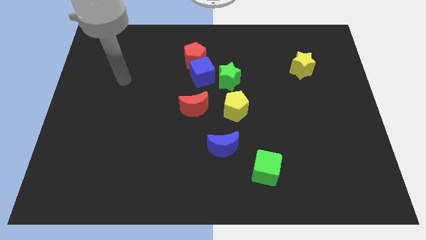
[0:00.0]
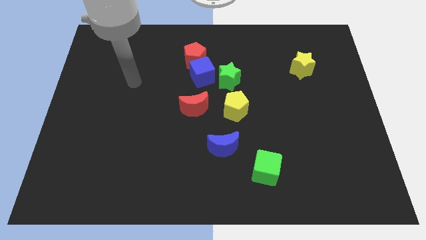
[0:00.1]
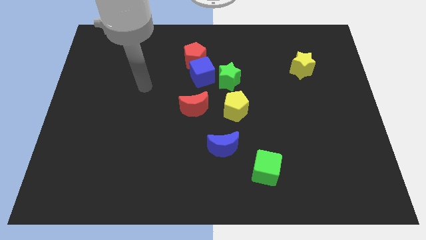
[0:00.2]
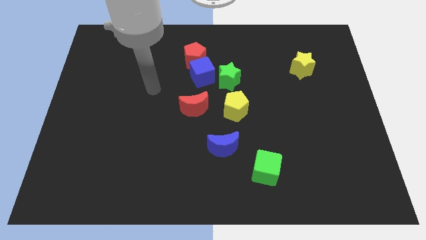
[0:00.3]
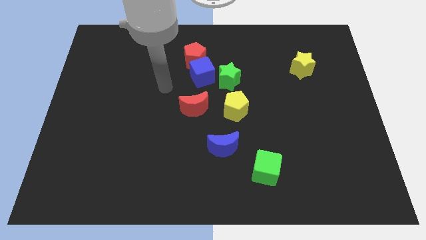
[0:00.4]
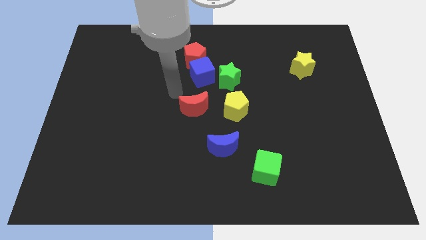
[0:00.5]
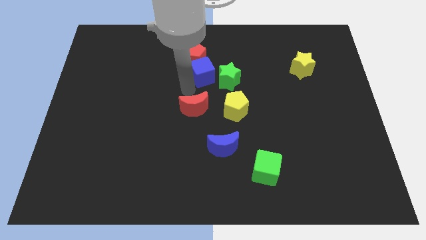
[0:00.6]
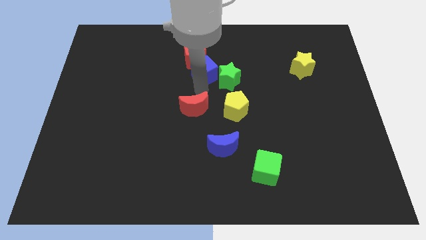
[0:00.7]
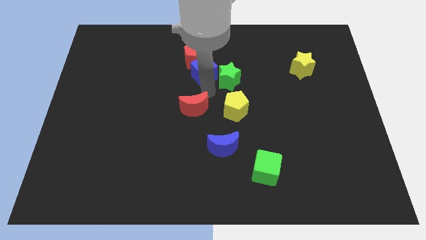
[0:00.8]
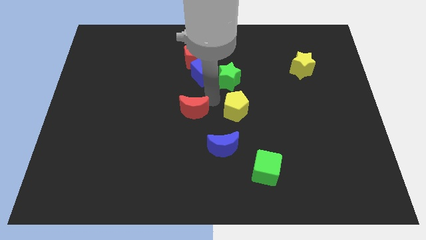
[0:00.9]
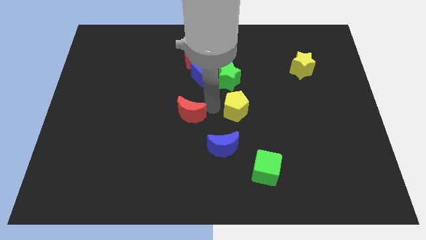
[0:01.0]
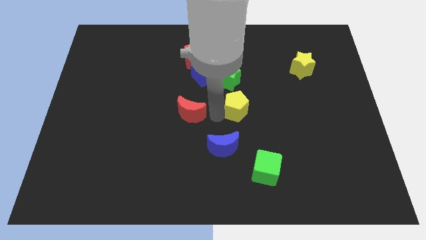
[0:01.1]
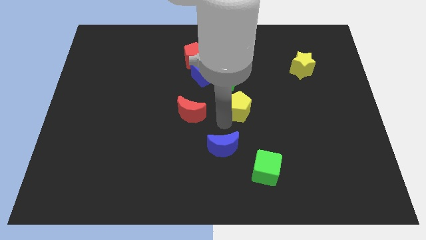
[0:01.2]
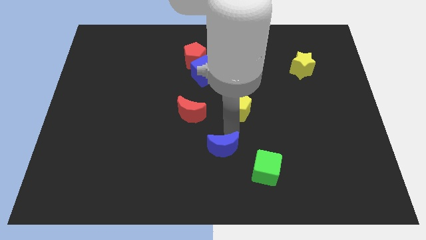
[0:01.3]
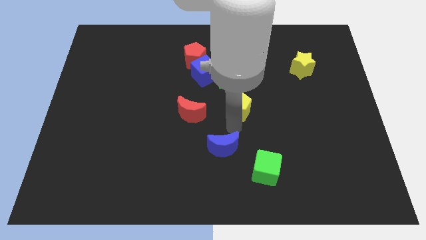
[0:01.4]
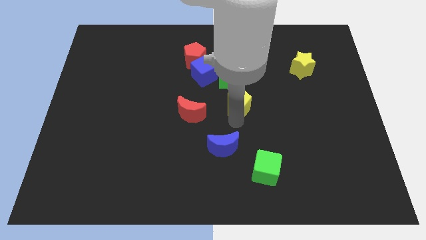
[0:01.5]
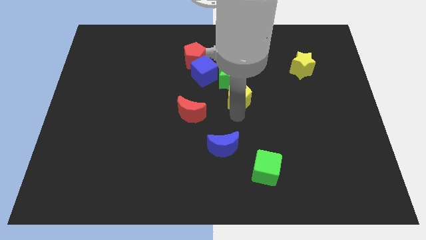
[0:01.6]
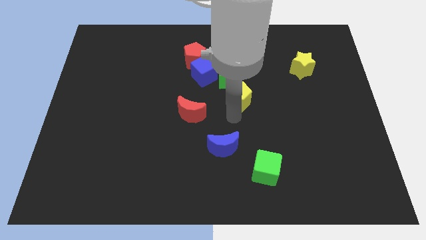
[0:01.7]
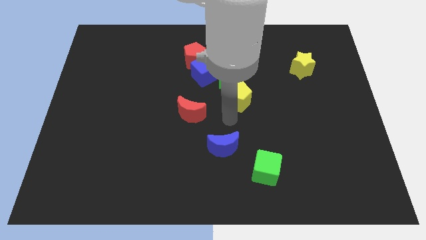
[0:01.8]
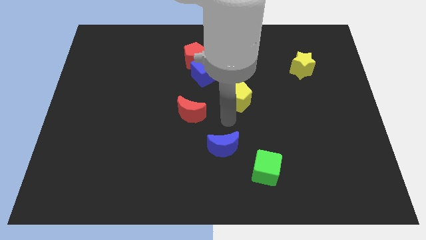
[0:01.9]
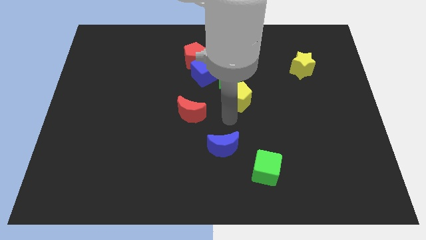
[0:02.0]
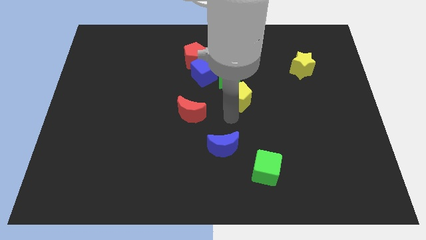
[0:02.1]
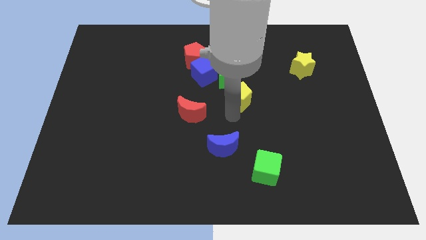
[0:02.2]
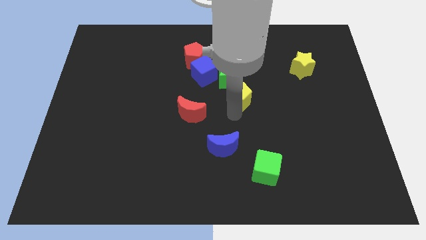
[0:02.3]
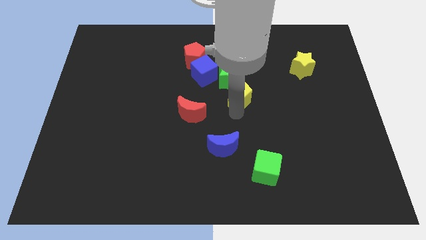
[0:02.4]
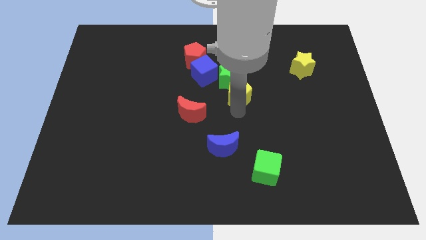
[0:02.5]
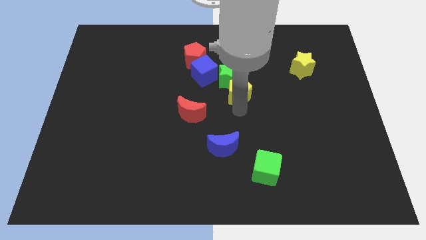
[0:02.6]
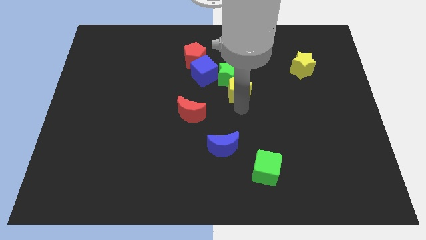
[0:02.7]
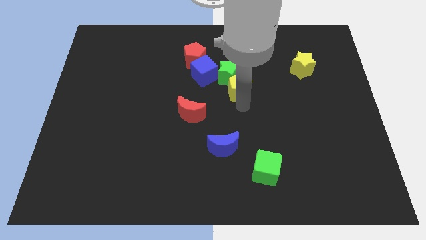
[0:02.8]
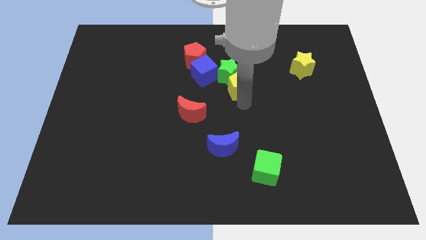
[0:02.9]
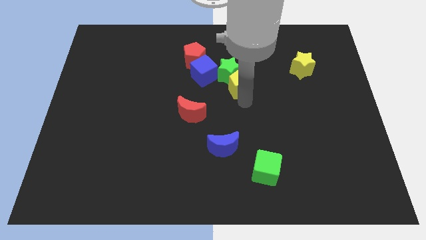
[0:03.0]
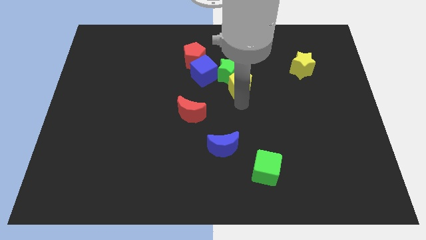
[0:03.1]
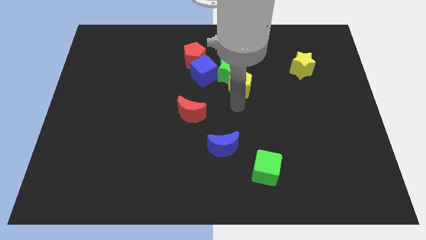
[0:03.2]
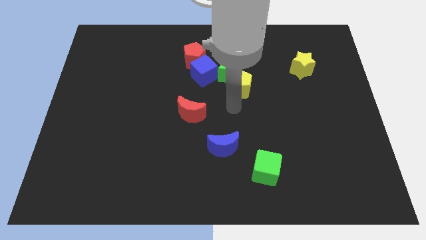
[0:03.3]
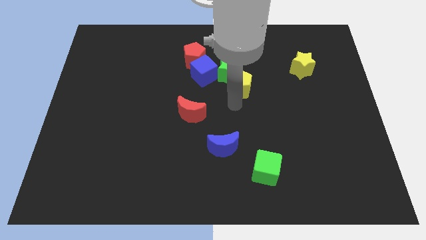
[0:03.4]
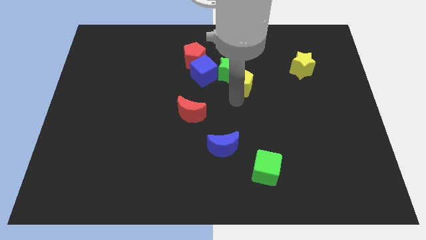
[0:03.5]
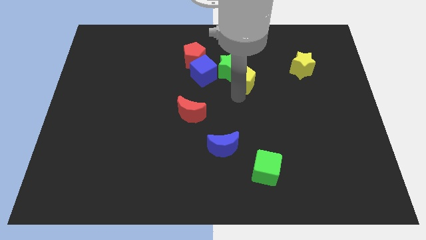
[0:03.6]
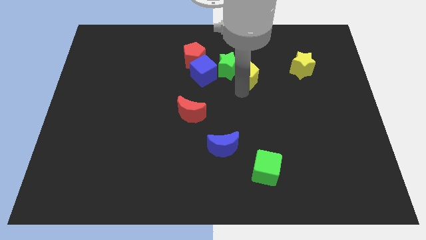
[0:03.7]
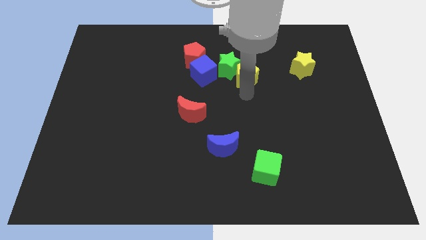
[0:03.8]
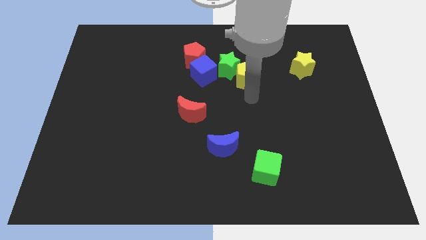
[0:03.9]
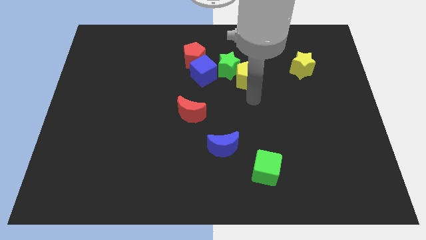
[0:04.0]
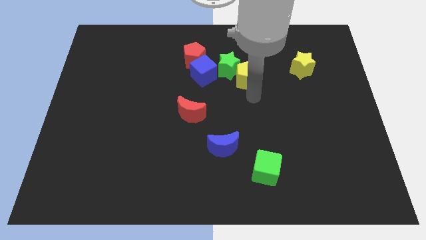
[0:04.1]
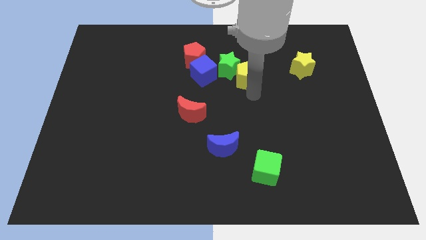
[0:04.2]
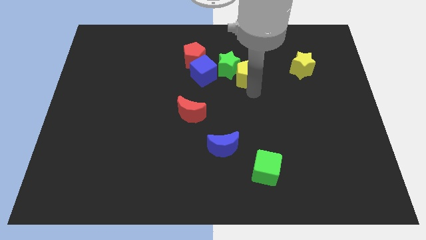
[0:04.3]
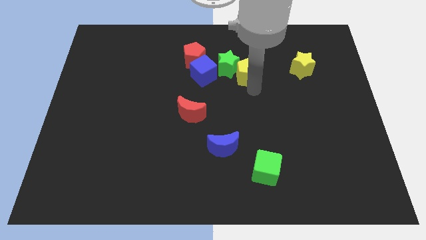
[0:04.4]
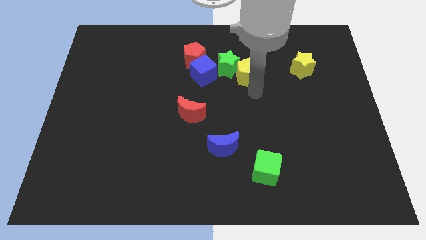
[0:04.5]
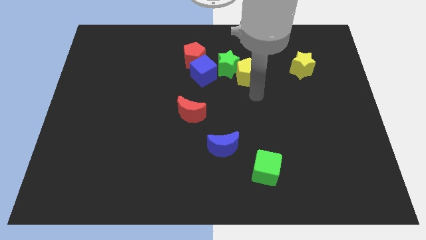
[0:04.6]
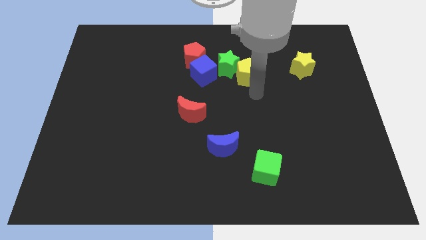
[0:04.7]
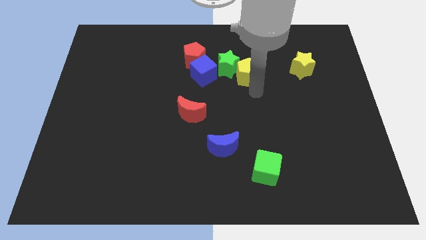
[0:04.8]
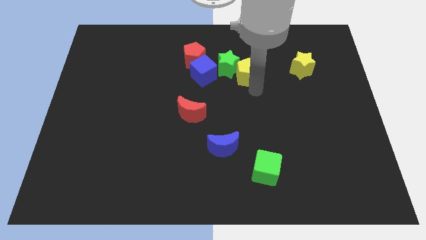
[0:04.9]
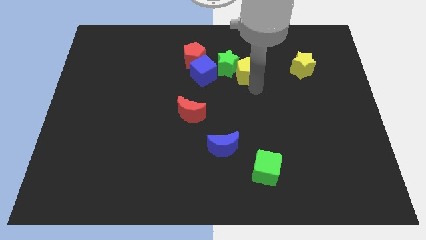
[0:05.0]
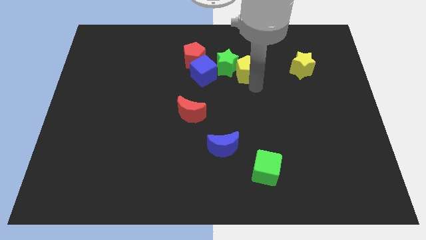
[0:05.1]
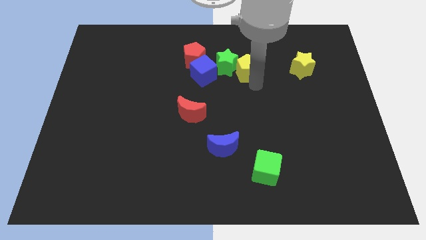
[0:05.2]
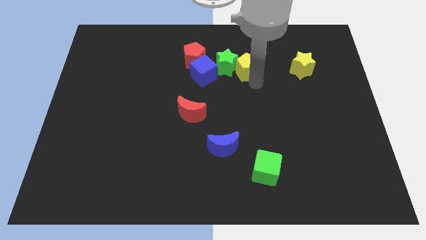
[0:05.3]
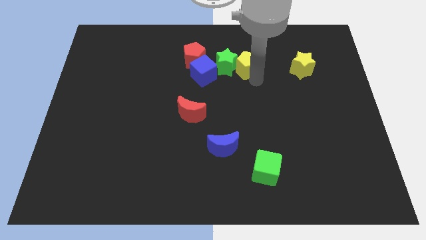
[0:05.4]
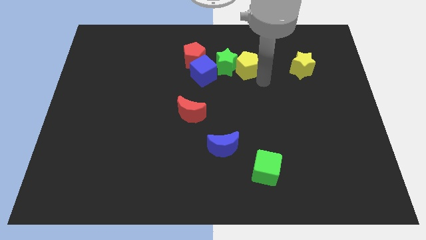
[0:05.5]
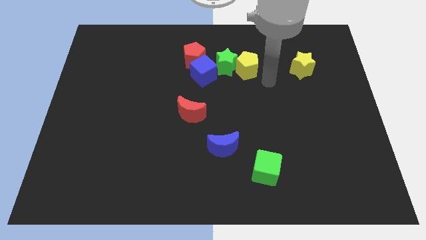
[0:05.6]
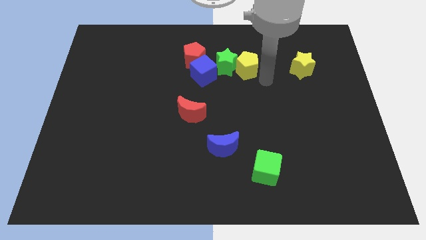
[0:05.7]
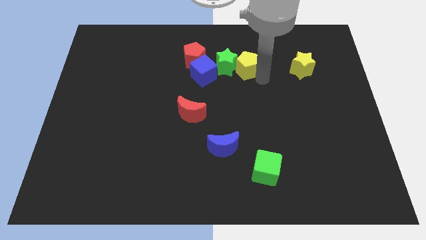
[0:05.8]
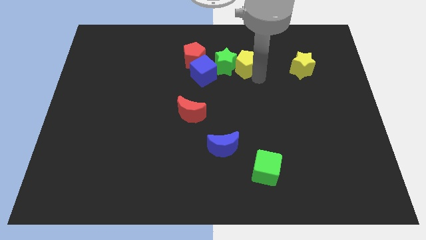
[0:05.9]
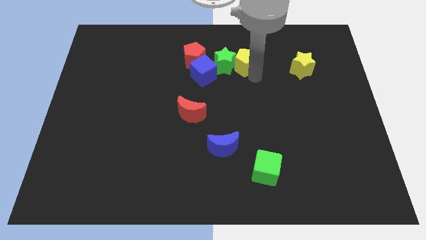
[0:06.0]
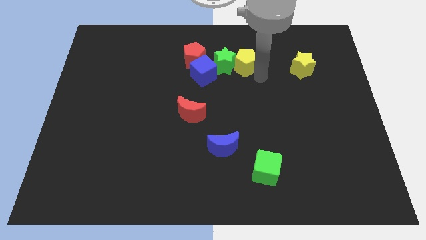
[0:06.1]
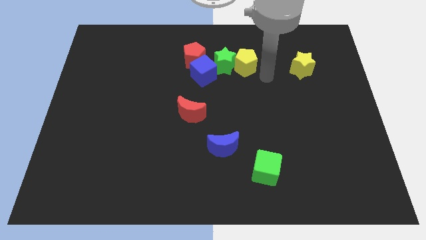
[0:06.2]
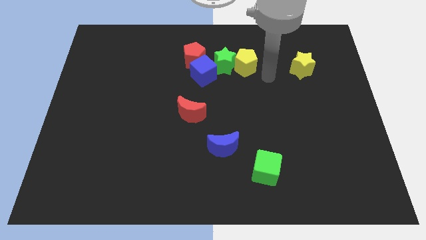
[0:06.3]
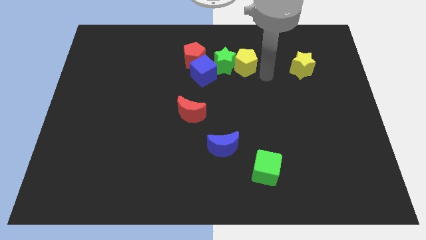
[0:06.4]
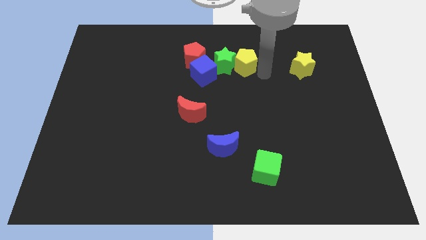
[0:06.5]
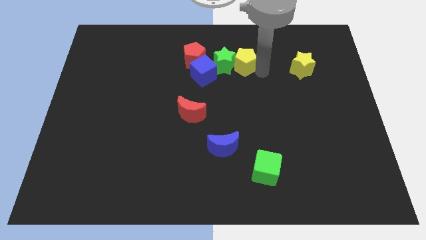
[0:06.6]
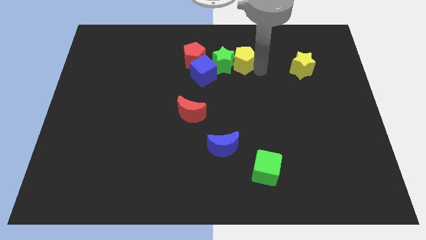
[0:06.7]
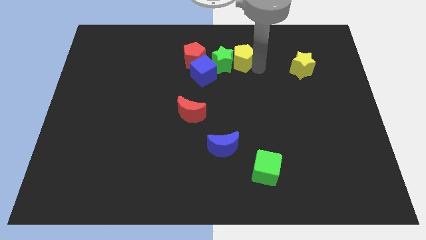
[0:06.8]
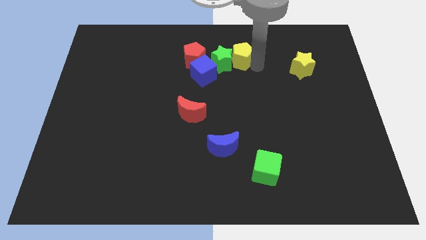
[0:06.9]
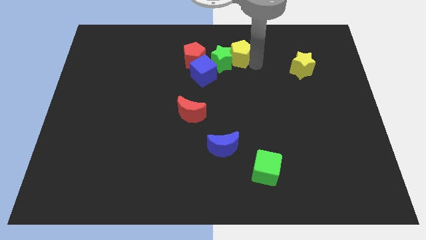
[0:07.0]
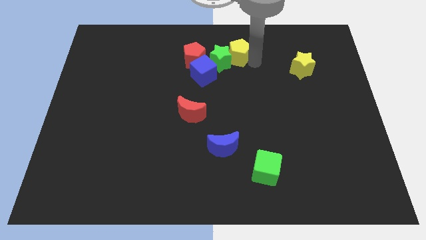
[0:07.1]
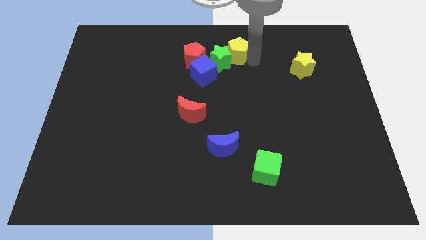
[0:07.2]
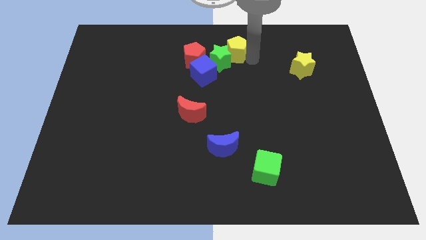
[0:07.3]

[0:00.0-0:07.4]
slide the yellow pentagon to the towards your base
